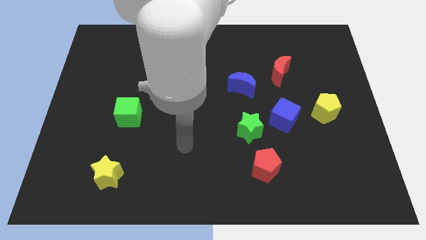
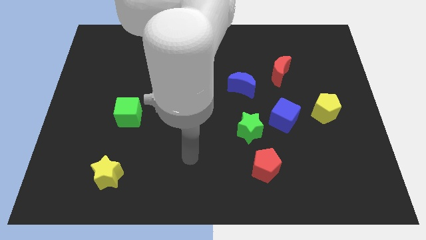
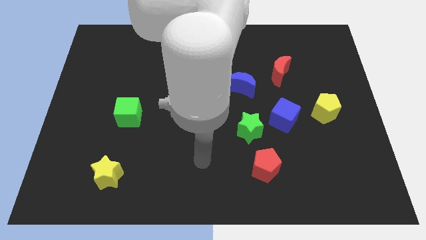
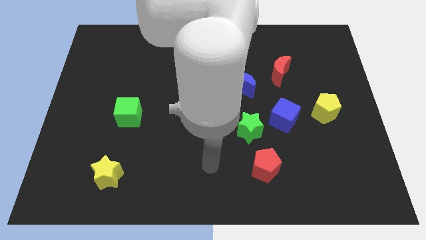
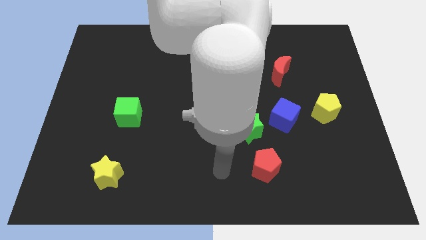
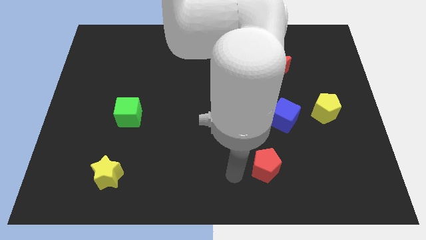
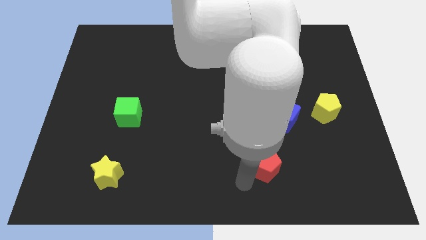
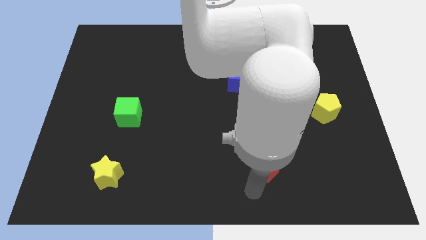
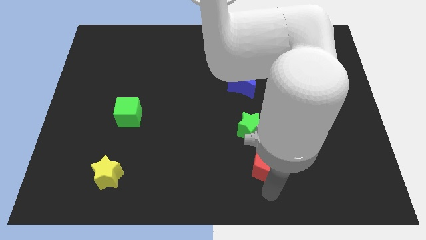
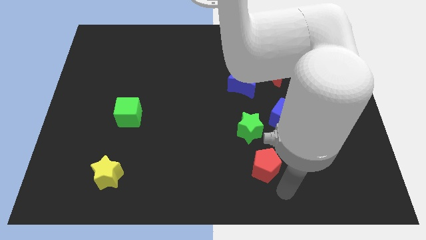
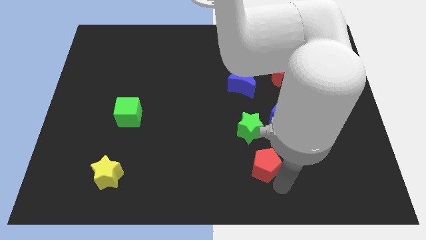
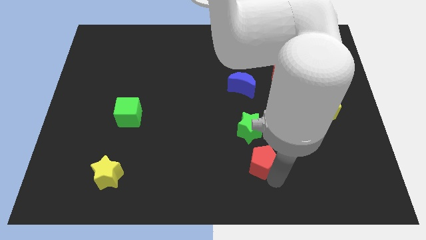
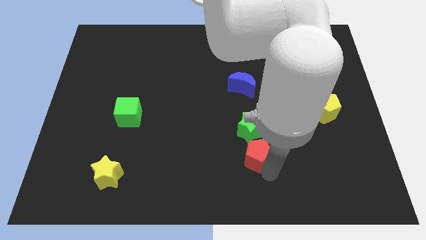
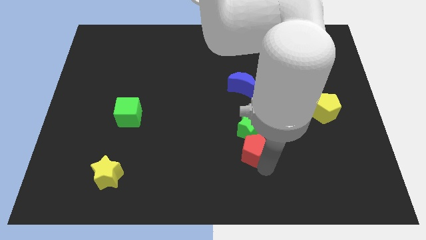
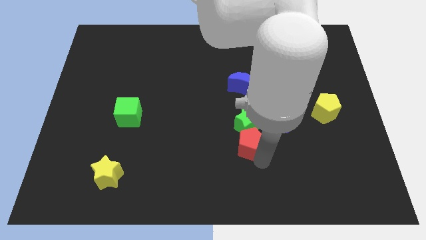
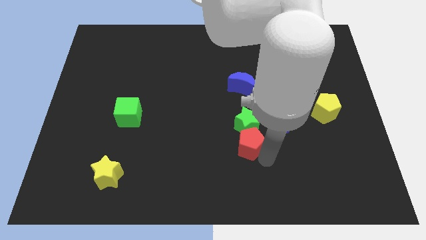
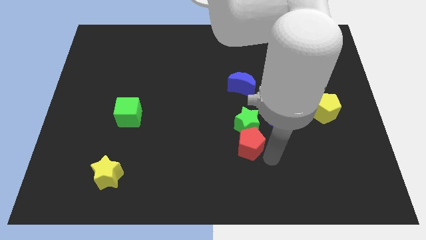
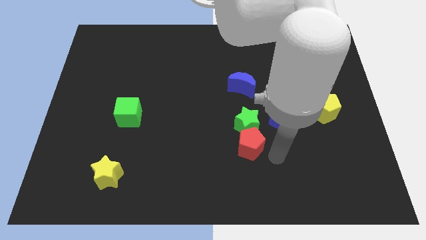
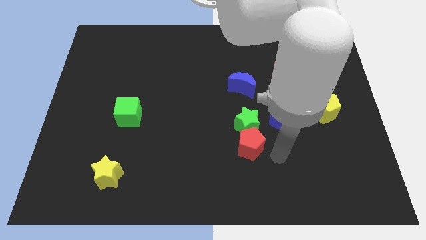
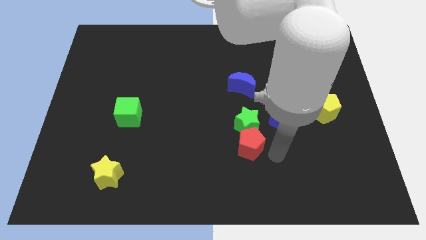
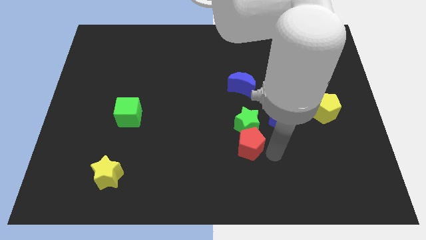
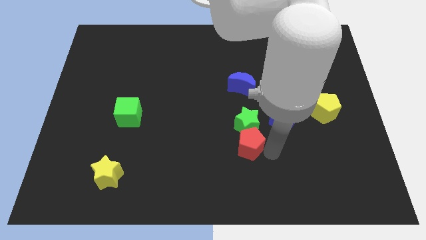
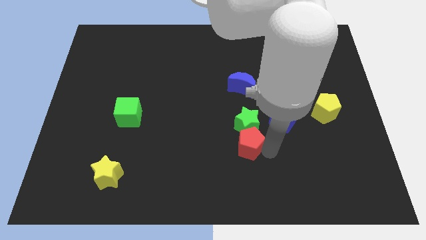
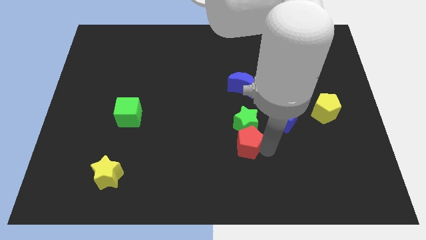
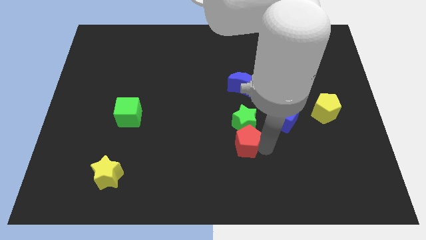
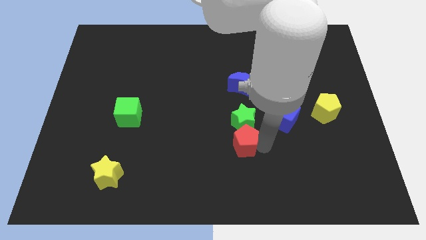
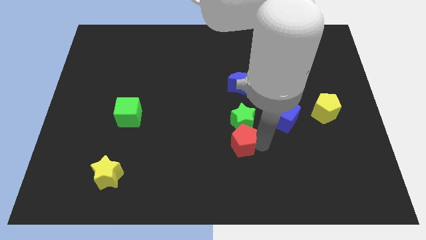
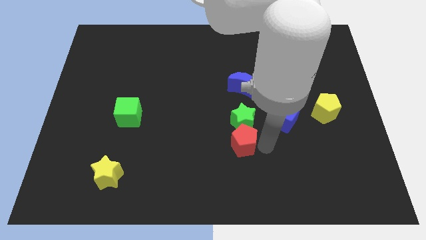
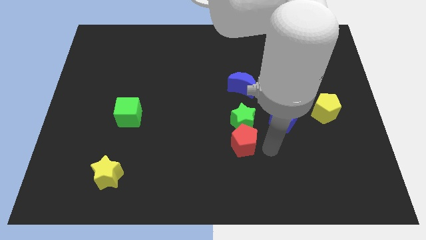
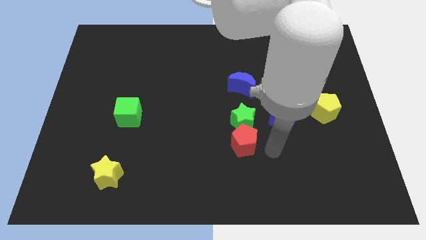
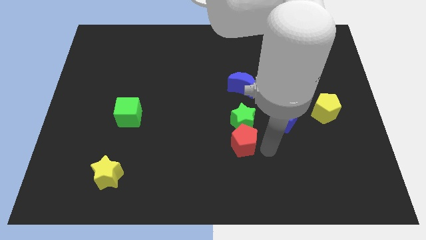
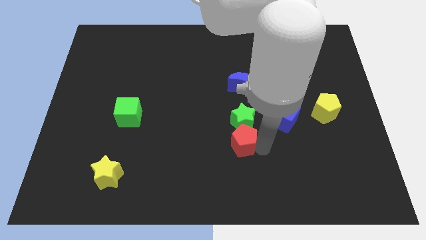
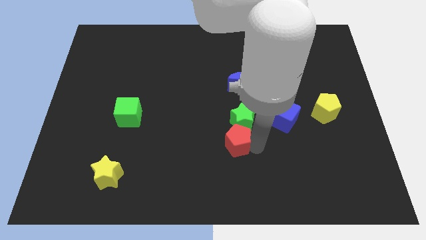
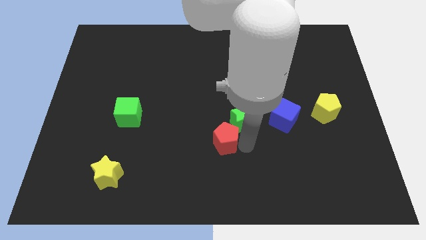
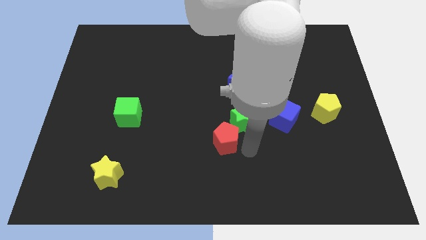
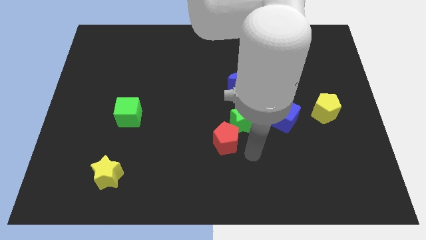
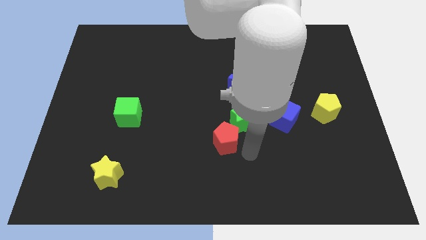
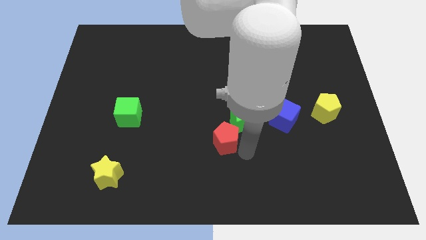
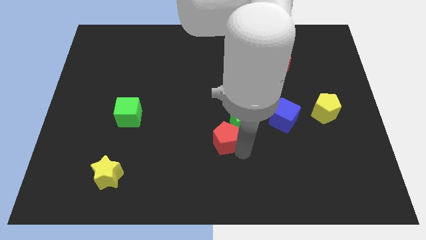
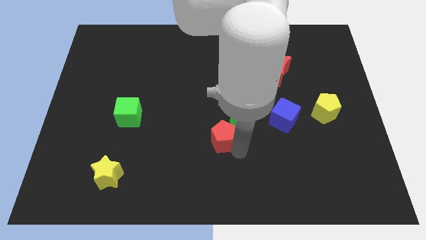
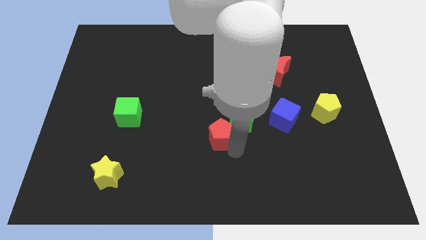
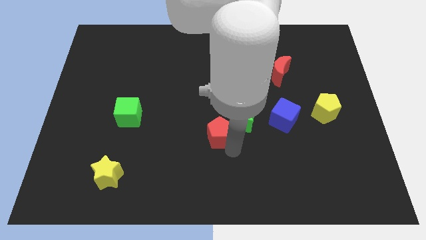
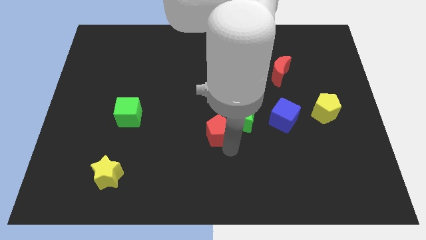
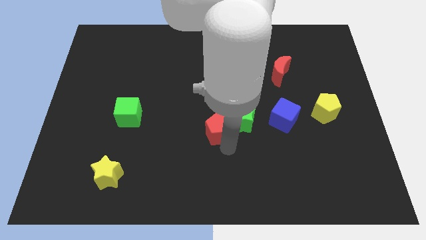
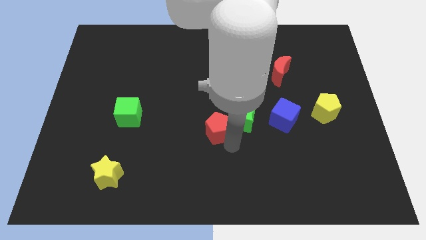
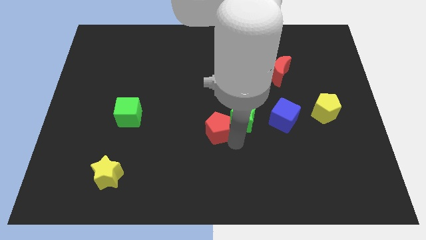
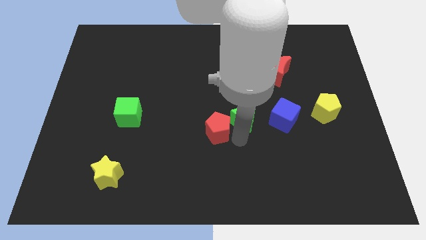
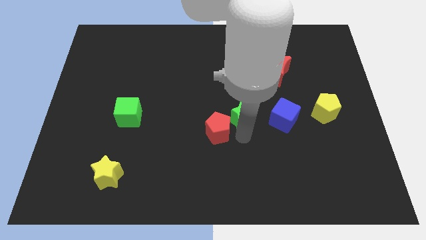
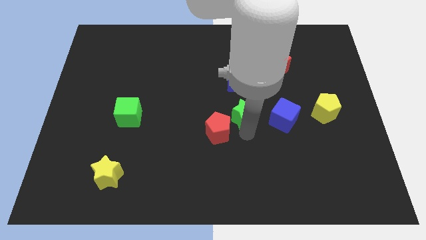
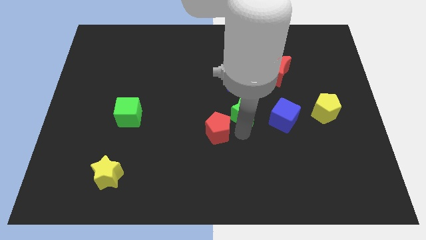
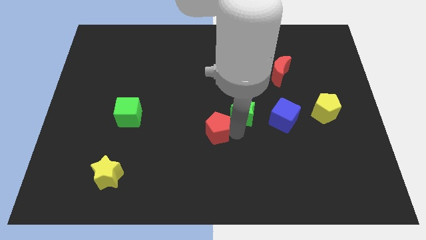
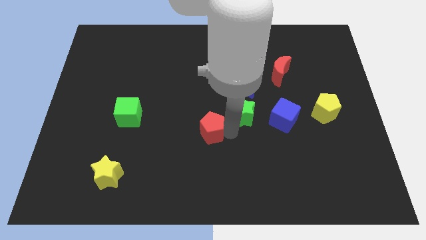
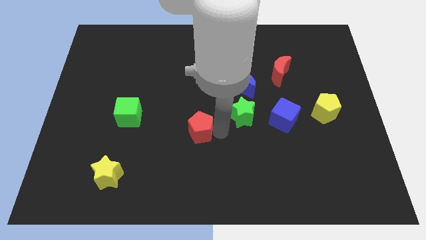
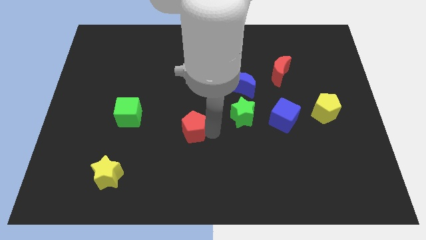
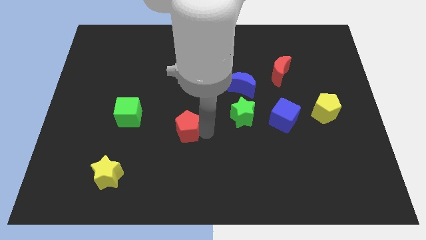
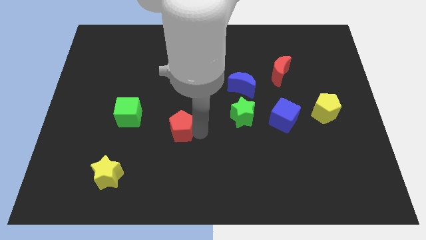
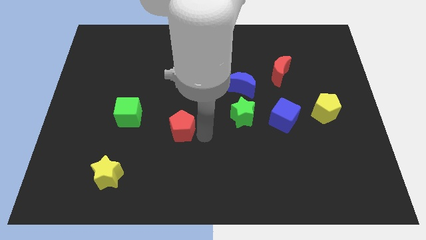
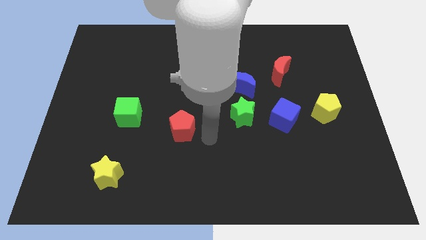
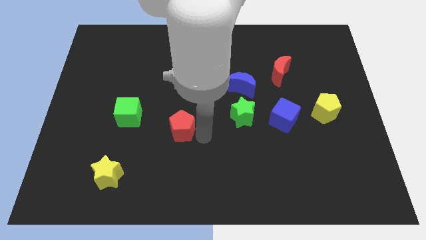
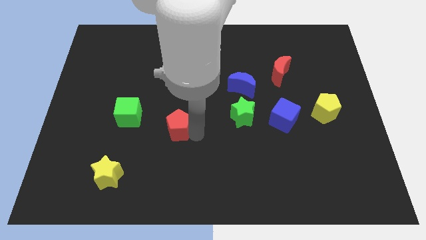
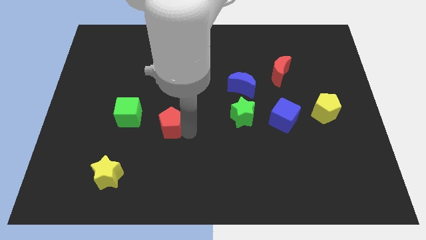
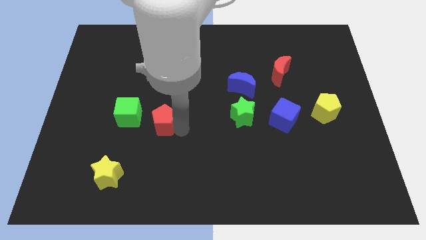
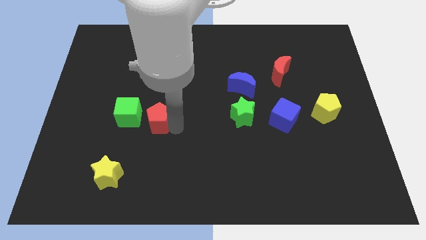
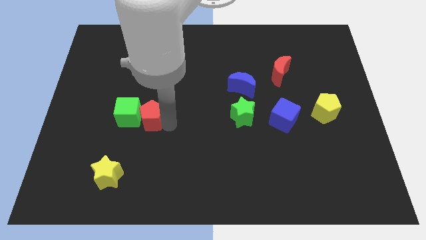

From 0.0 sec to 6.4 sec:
put the red pentagon to the green cube

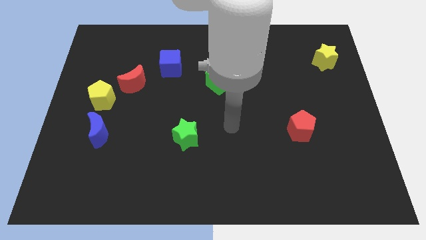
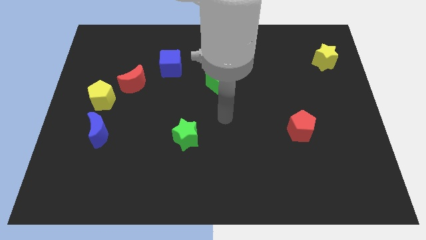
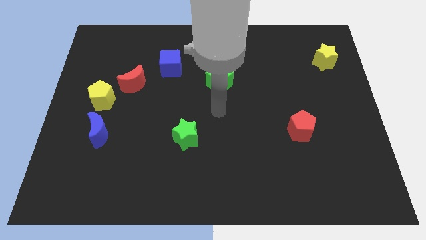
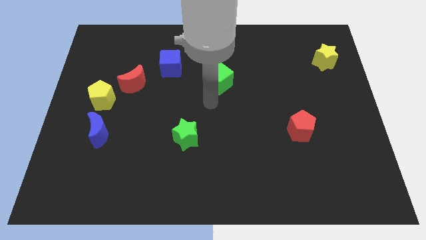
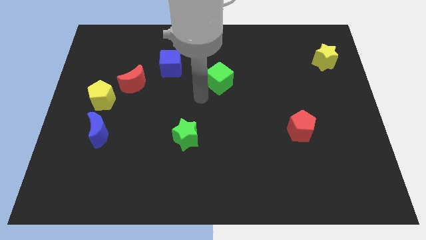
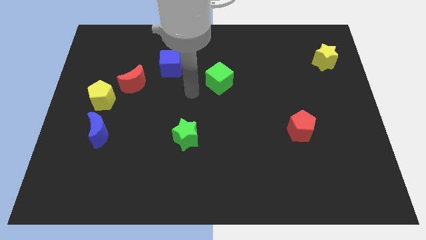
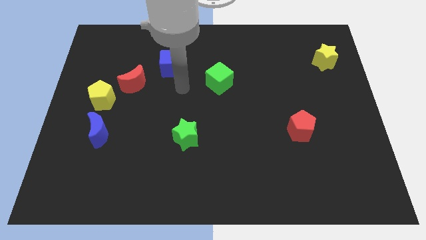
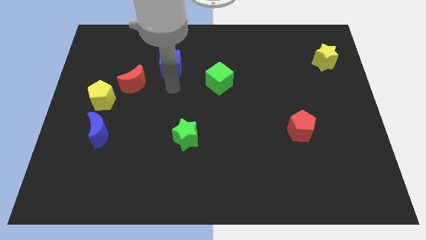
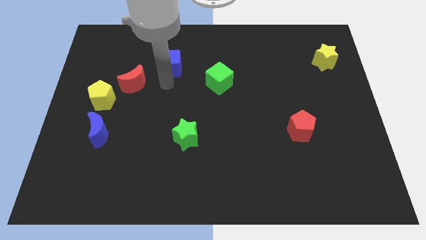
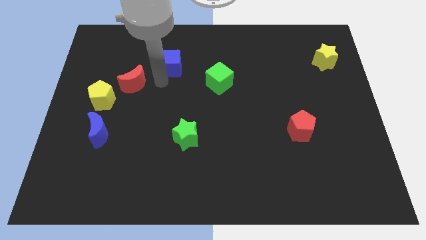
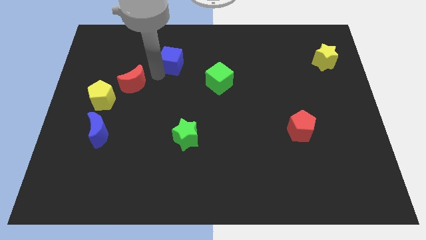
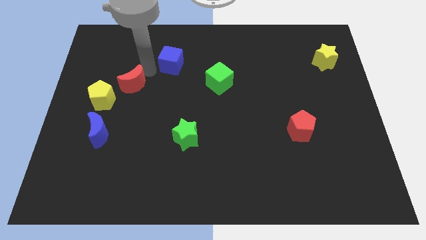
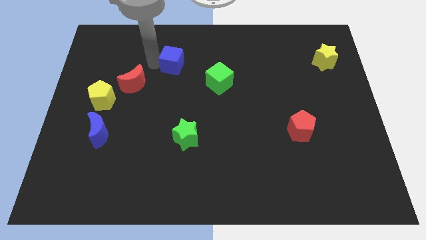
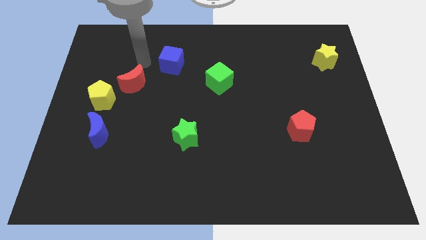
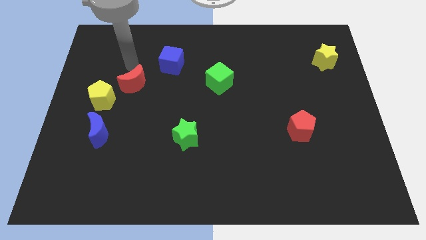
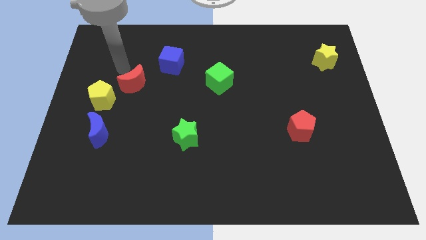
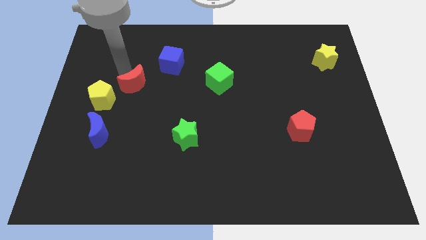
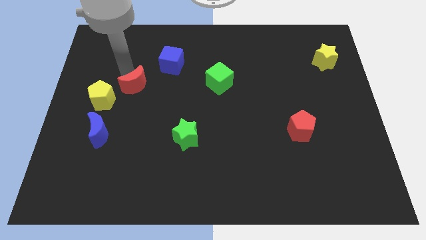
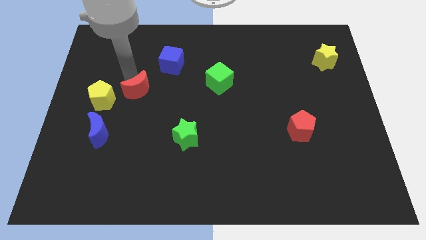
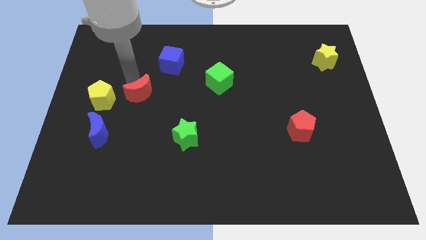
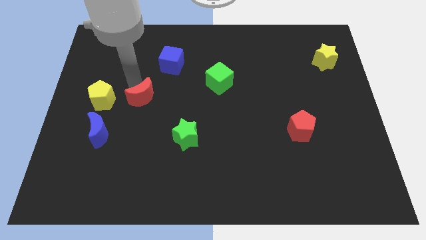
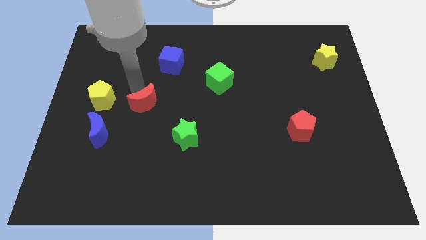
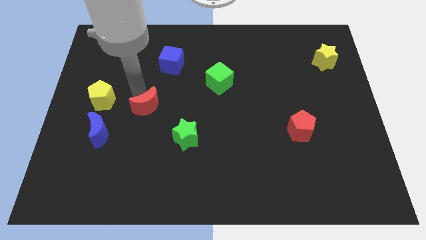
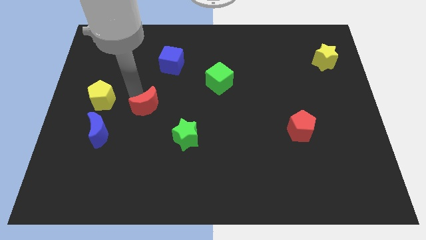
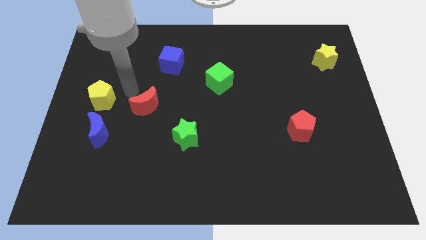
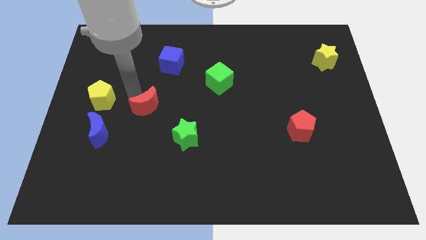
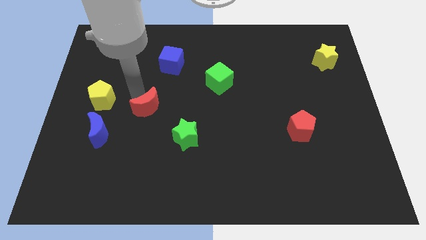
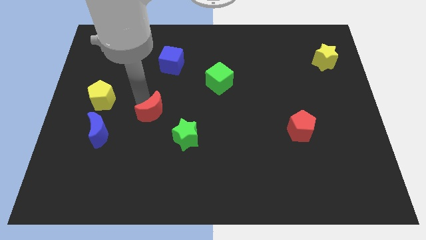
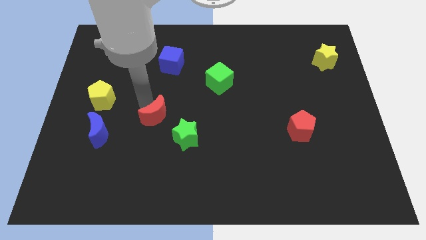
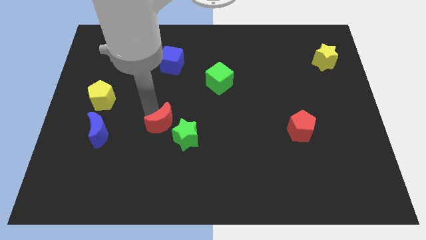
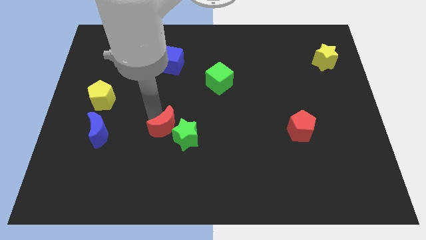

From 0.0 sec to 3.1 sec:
put the red moon next to the green star
